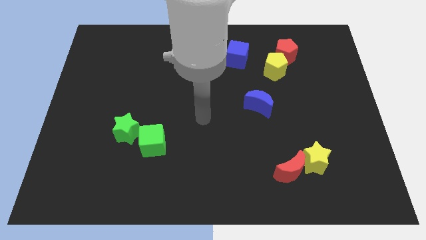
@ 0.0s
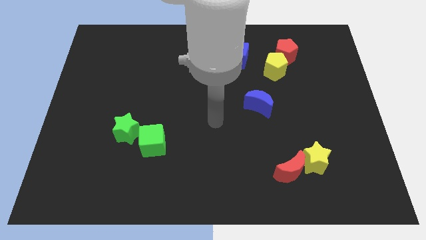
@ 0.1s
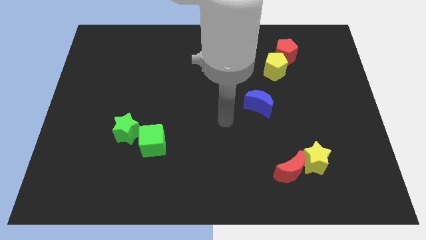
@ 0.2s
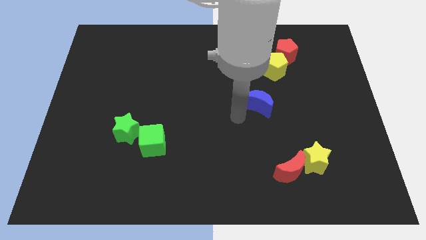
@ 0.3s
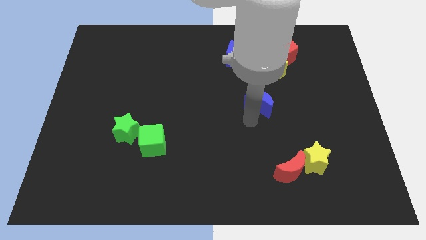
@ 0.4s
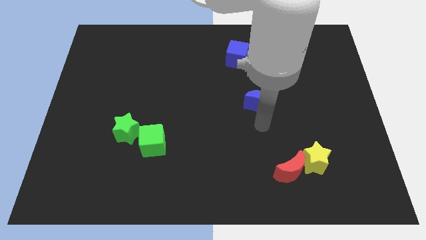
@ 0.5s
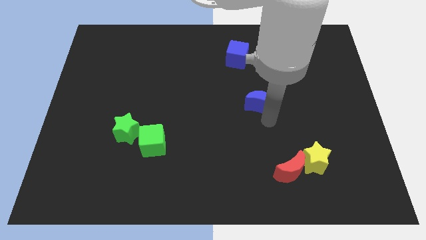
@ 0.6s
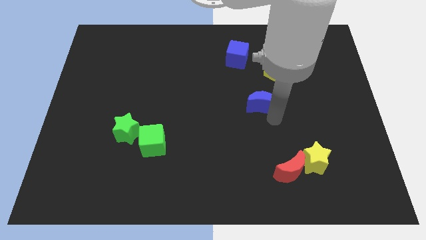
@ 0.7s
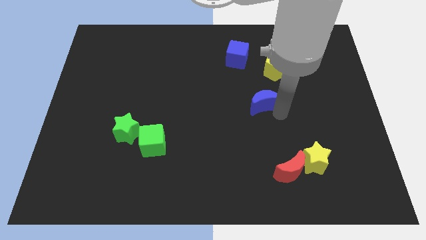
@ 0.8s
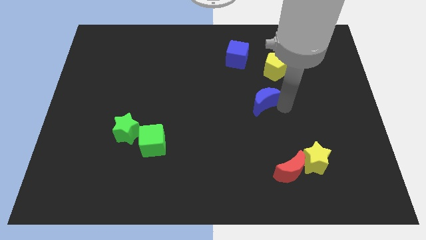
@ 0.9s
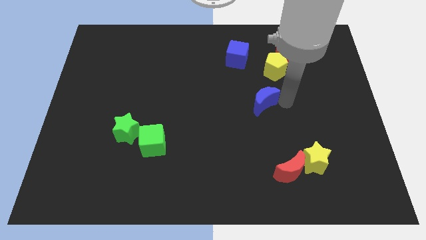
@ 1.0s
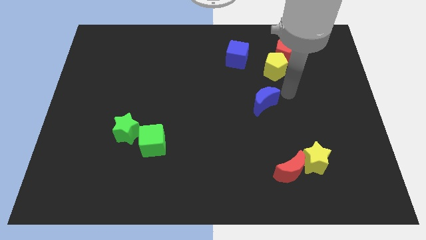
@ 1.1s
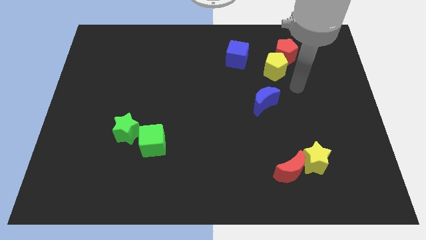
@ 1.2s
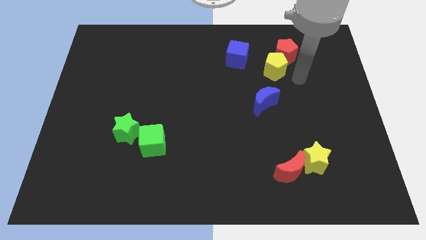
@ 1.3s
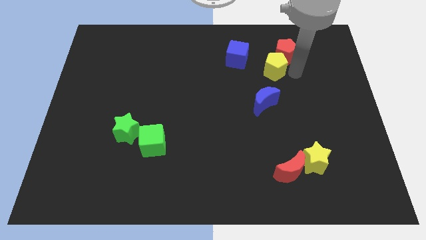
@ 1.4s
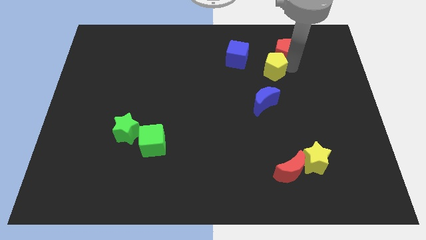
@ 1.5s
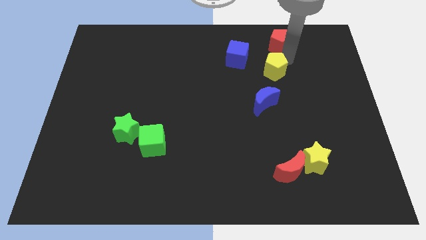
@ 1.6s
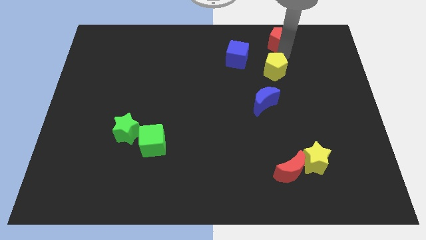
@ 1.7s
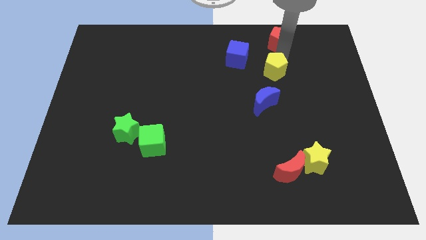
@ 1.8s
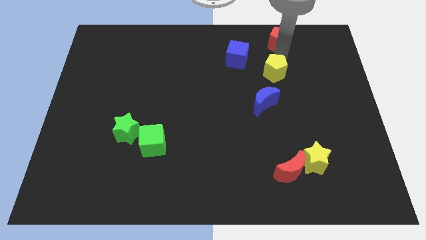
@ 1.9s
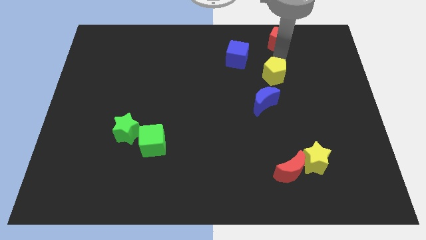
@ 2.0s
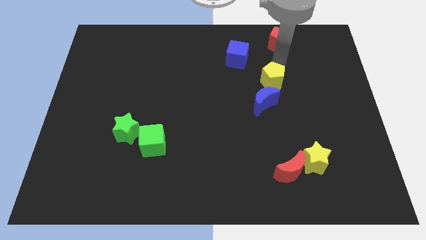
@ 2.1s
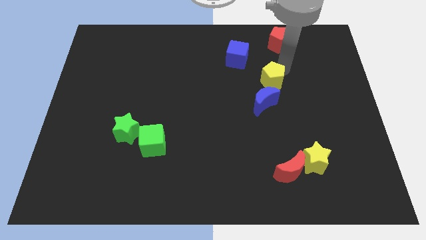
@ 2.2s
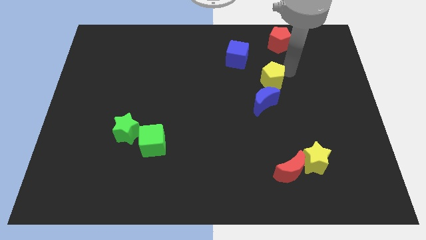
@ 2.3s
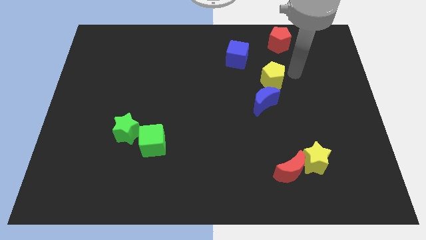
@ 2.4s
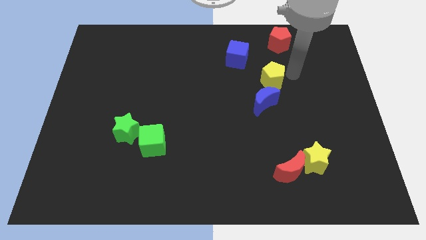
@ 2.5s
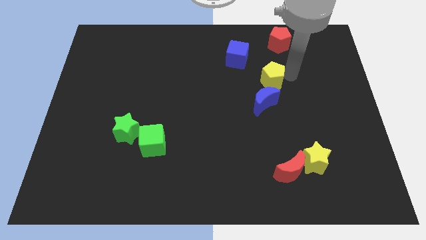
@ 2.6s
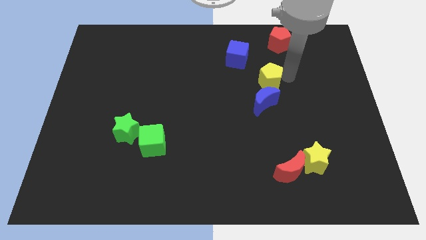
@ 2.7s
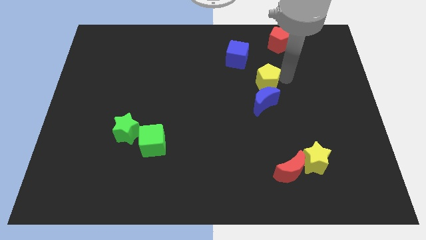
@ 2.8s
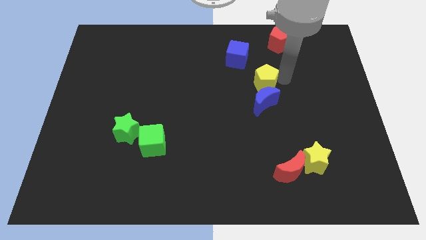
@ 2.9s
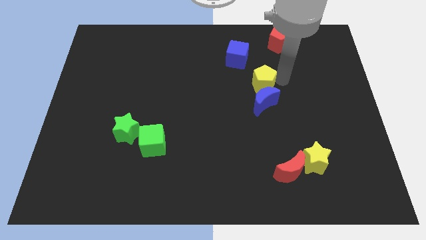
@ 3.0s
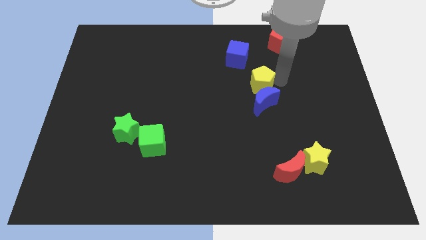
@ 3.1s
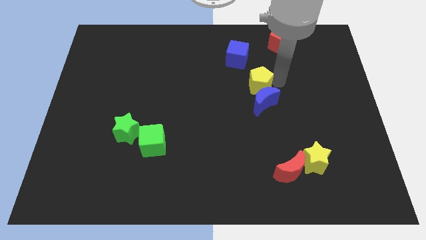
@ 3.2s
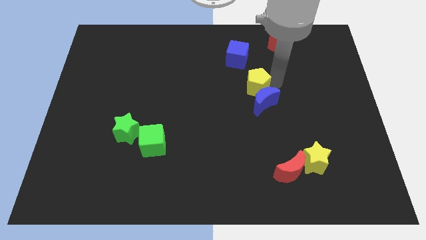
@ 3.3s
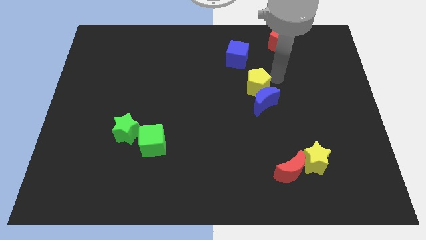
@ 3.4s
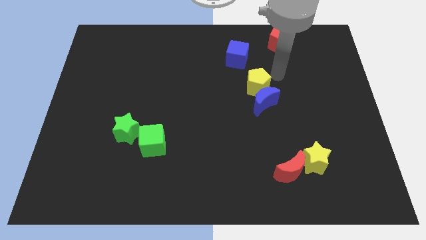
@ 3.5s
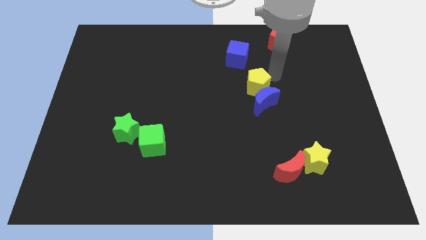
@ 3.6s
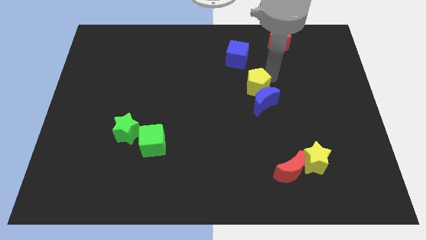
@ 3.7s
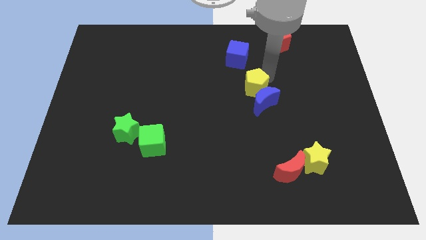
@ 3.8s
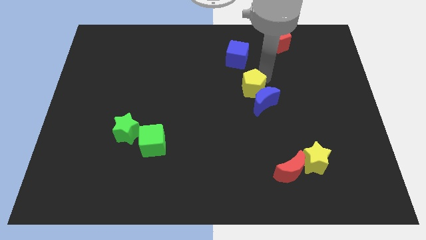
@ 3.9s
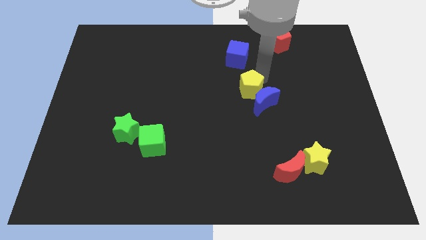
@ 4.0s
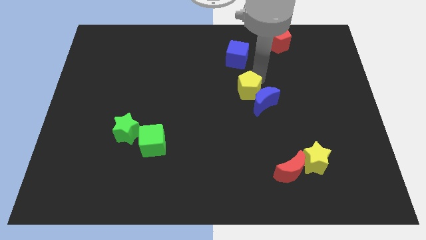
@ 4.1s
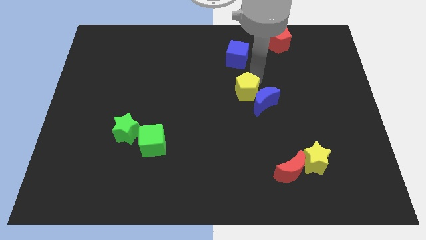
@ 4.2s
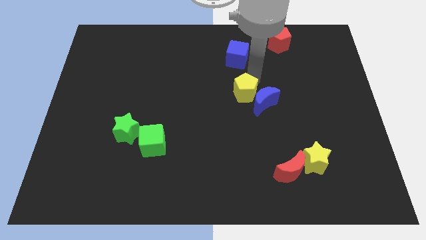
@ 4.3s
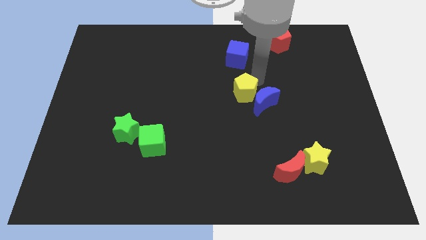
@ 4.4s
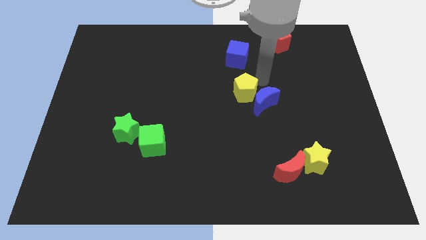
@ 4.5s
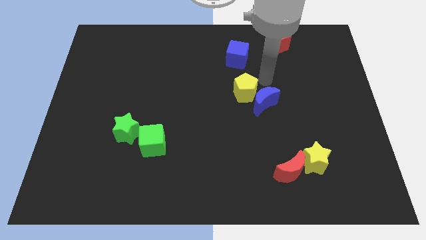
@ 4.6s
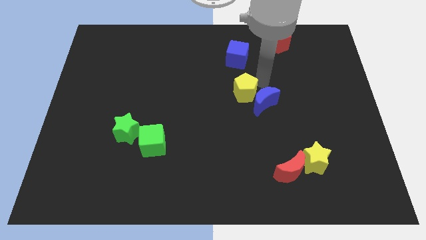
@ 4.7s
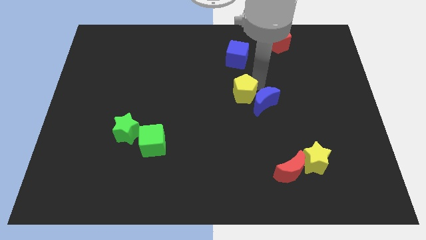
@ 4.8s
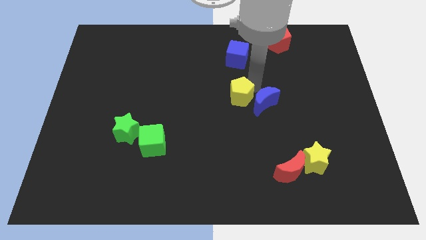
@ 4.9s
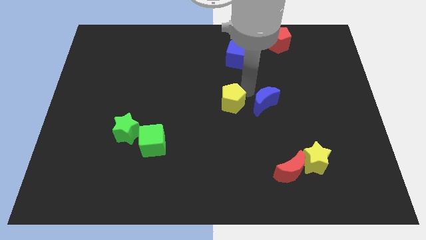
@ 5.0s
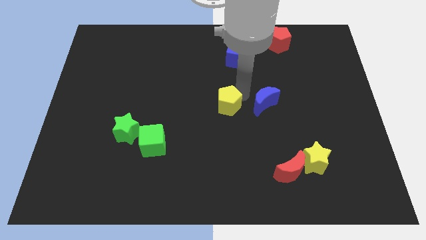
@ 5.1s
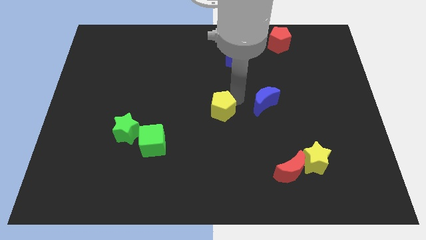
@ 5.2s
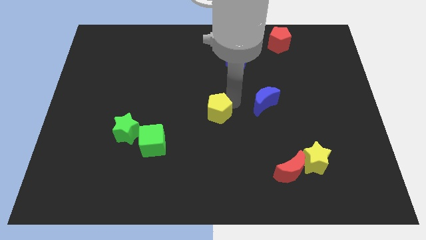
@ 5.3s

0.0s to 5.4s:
move the yellow pentagon down and to the left diagonally

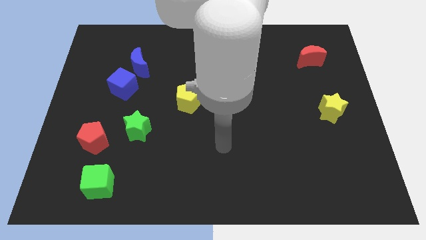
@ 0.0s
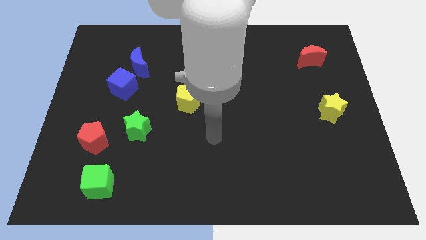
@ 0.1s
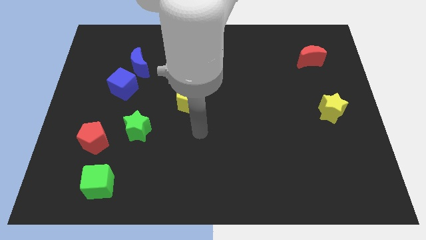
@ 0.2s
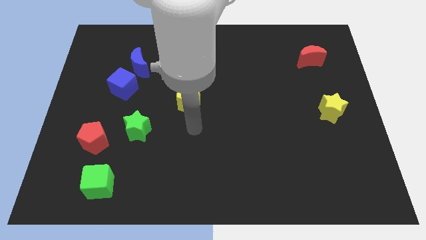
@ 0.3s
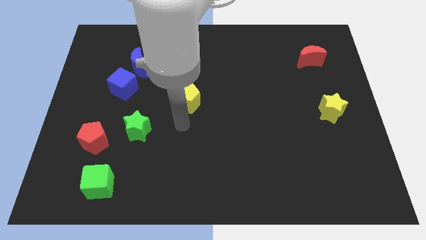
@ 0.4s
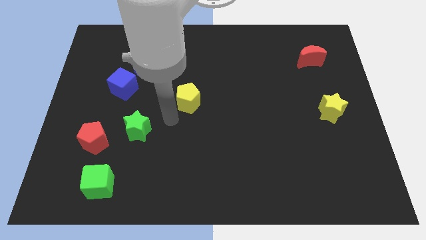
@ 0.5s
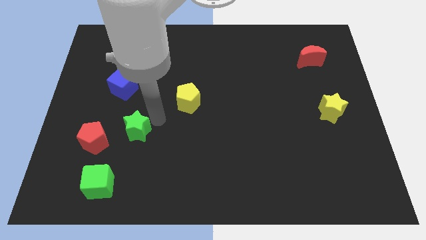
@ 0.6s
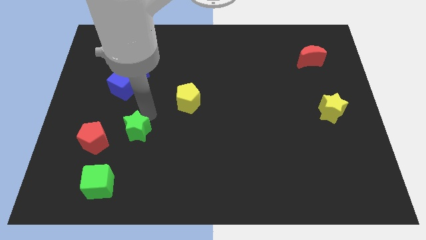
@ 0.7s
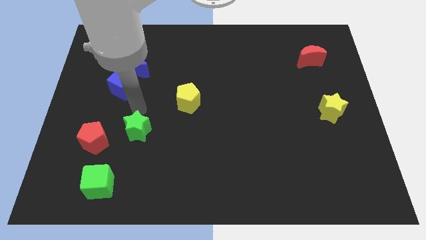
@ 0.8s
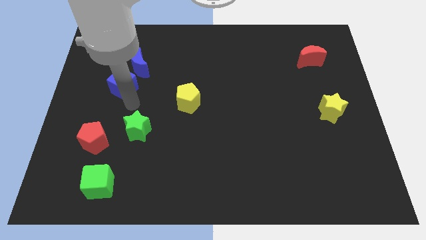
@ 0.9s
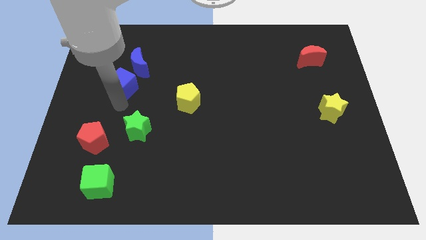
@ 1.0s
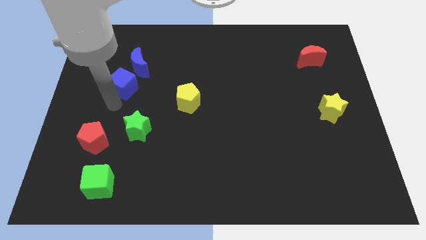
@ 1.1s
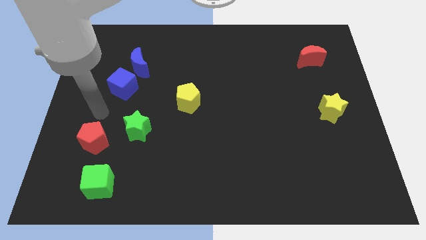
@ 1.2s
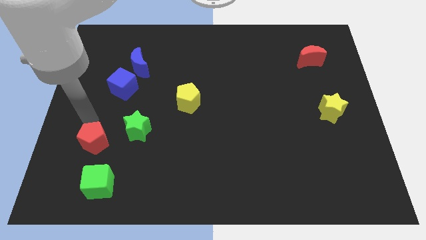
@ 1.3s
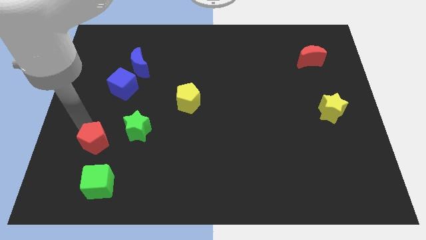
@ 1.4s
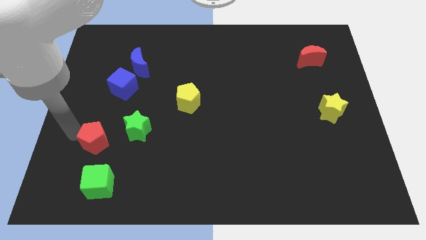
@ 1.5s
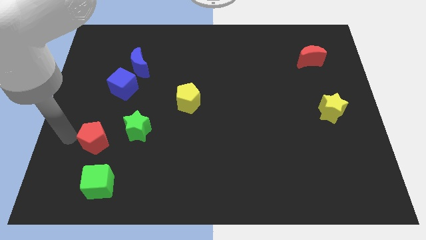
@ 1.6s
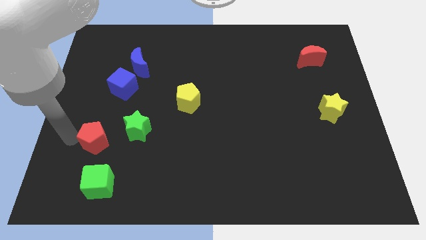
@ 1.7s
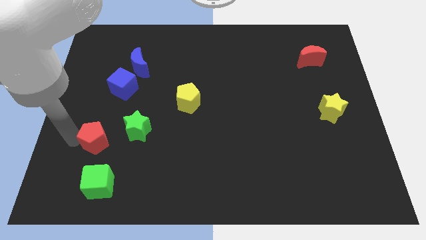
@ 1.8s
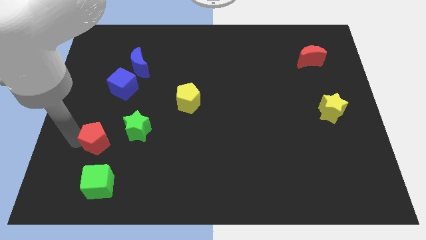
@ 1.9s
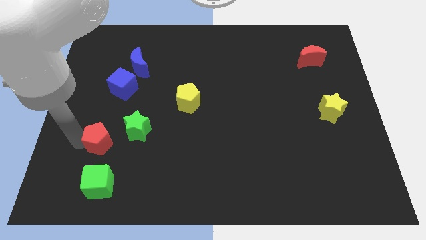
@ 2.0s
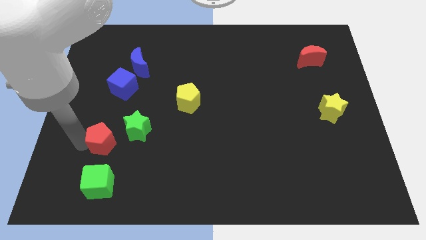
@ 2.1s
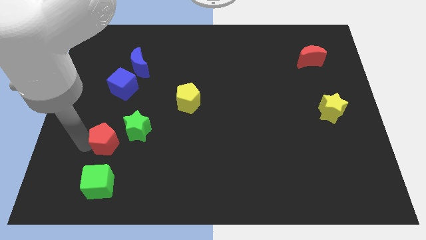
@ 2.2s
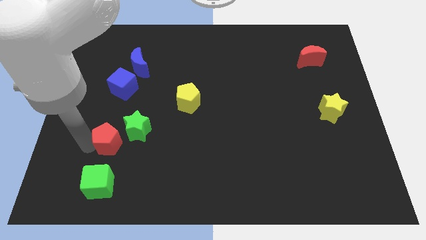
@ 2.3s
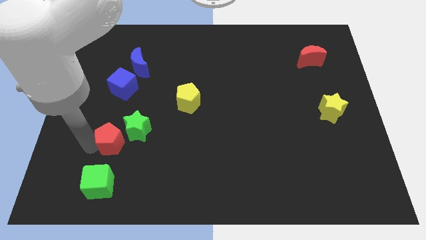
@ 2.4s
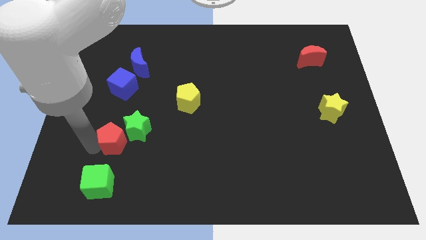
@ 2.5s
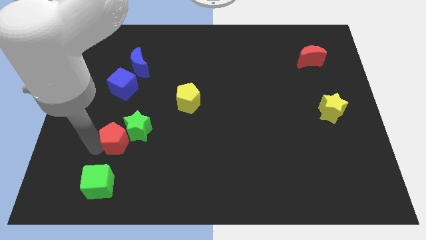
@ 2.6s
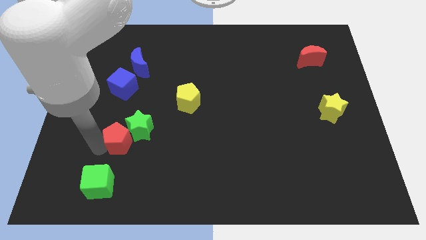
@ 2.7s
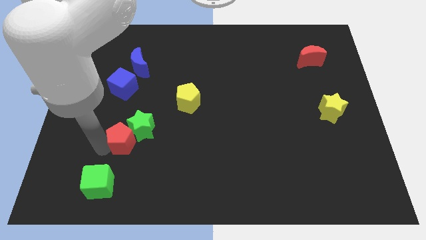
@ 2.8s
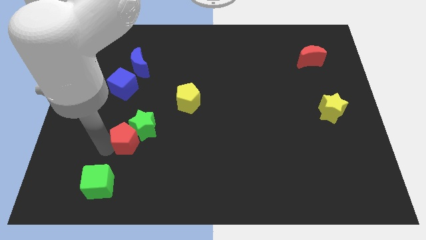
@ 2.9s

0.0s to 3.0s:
slide the red pentagon a bit right
